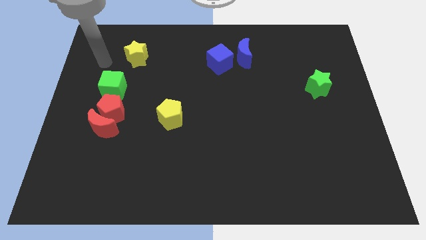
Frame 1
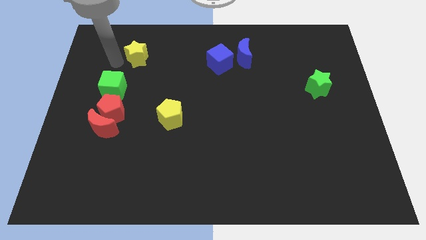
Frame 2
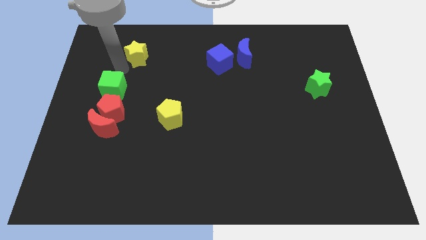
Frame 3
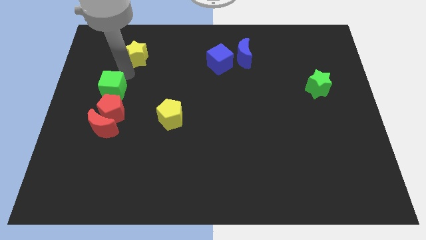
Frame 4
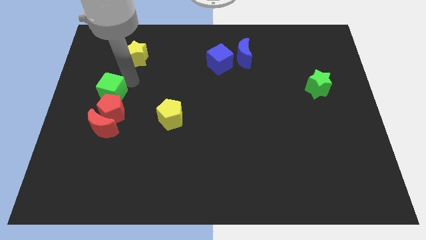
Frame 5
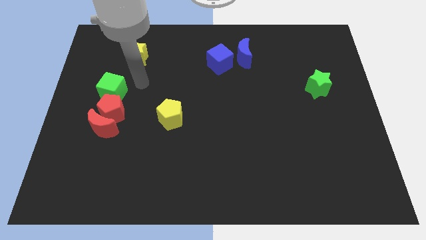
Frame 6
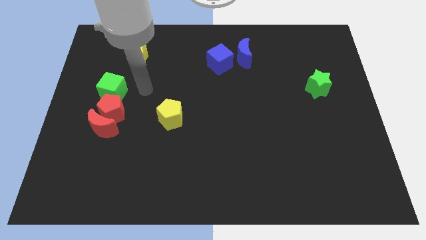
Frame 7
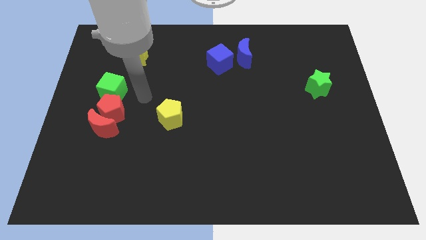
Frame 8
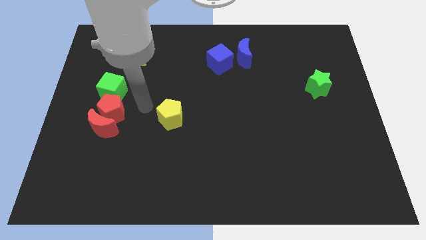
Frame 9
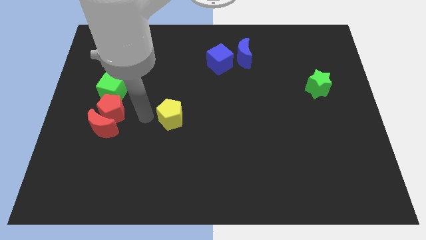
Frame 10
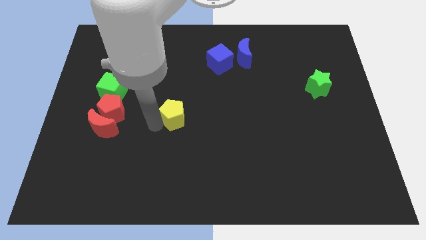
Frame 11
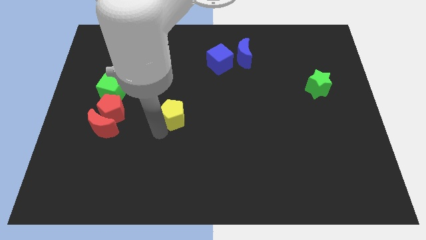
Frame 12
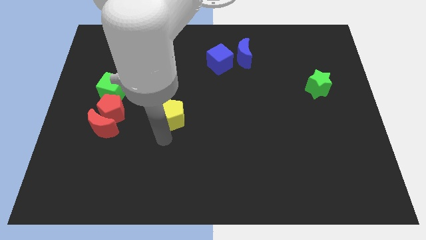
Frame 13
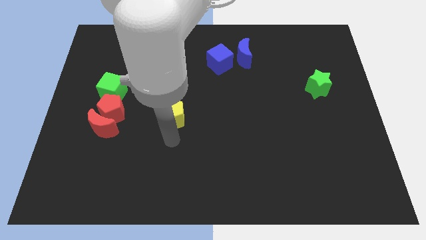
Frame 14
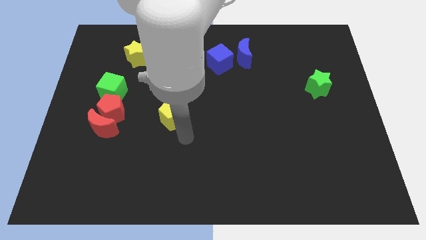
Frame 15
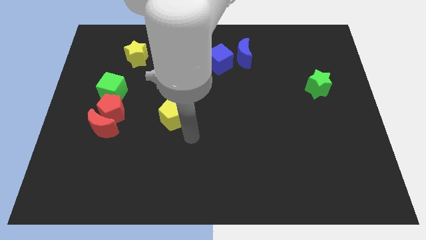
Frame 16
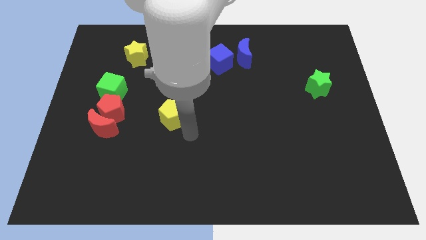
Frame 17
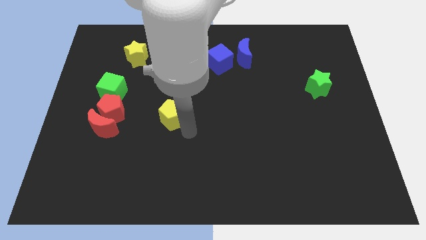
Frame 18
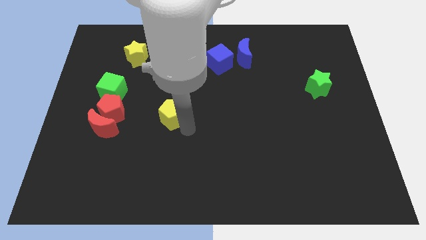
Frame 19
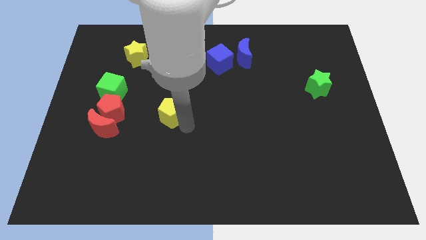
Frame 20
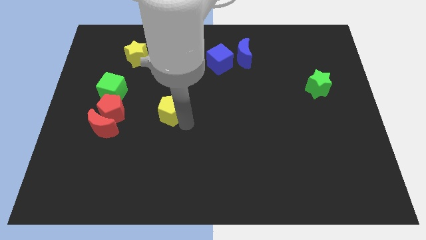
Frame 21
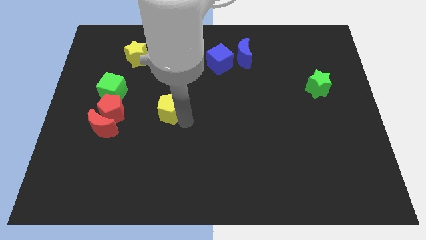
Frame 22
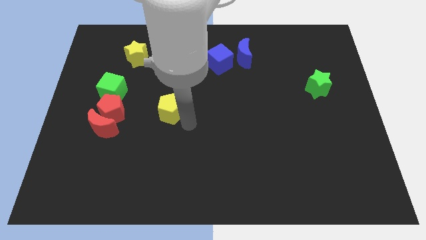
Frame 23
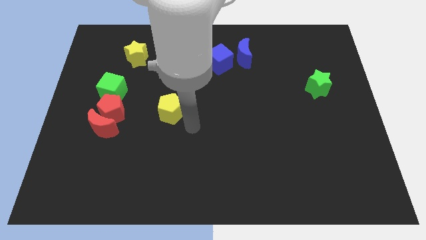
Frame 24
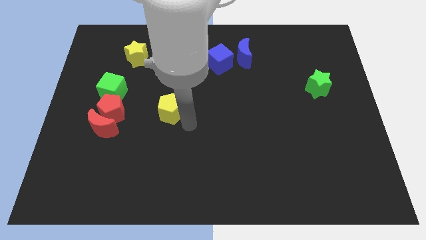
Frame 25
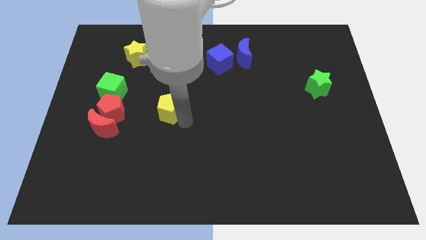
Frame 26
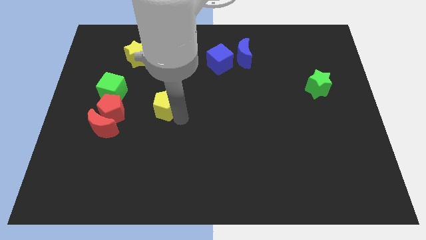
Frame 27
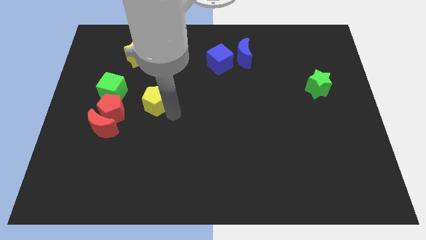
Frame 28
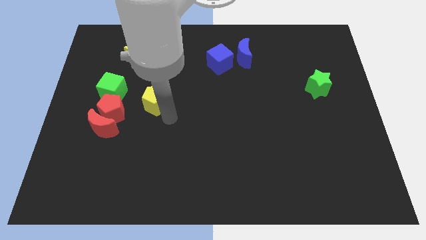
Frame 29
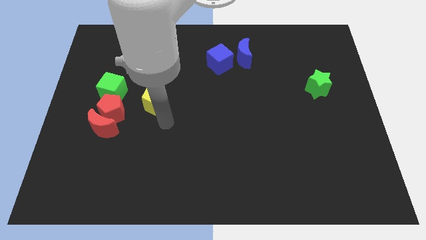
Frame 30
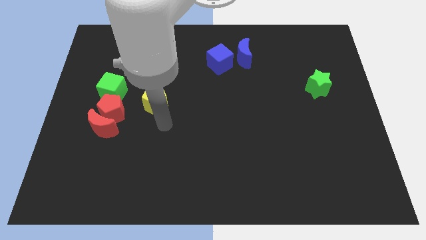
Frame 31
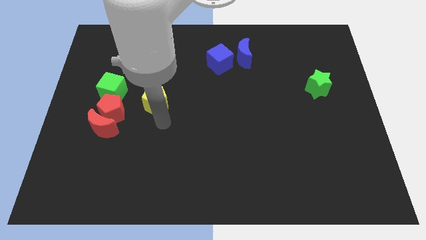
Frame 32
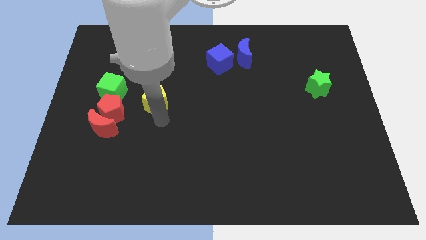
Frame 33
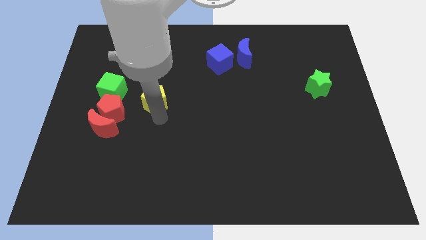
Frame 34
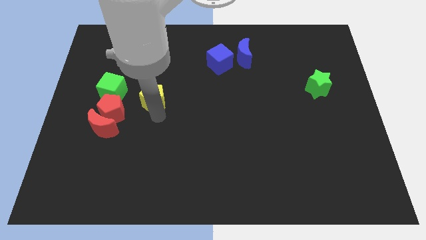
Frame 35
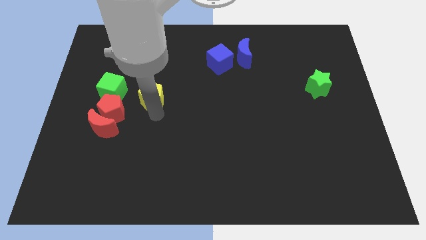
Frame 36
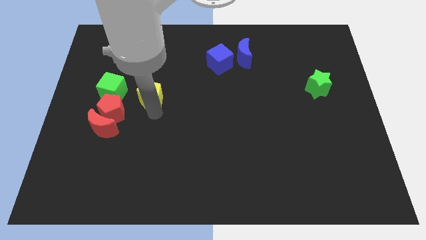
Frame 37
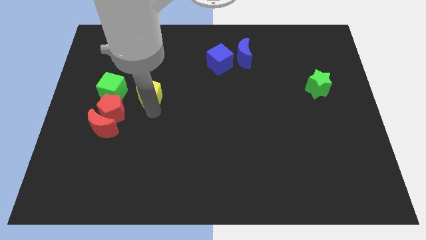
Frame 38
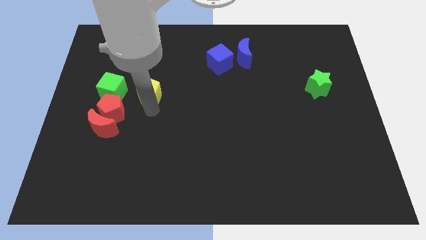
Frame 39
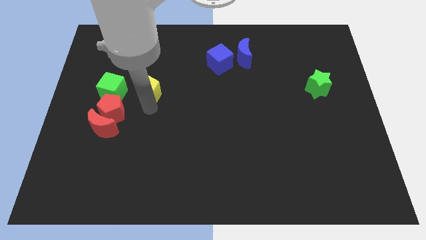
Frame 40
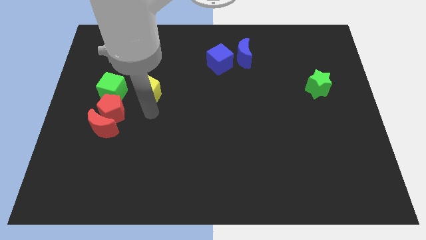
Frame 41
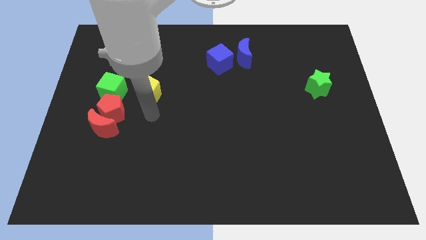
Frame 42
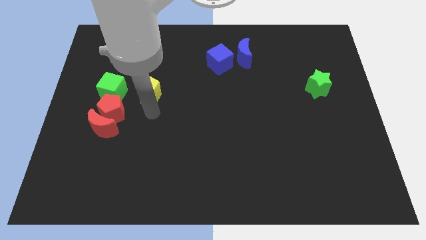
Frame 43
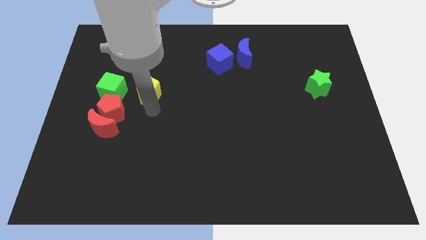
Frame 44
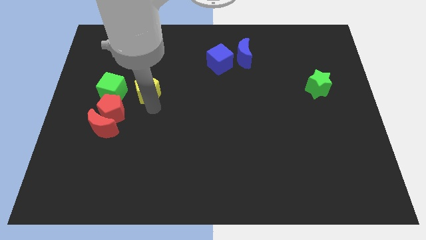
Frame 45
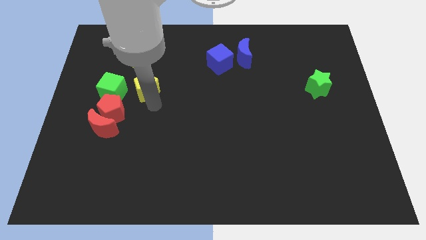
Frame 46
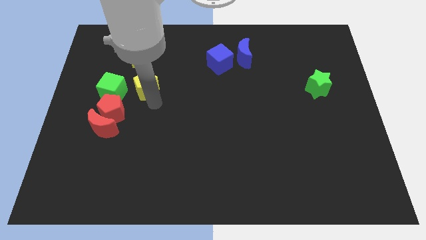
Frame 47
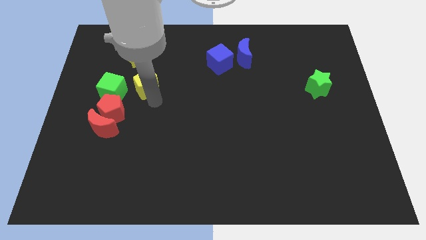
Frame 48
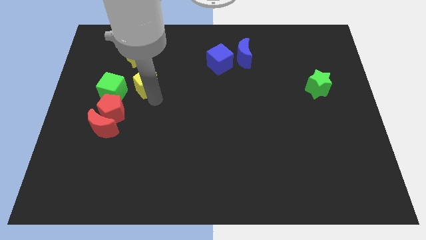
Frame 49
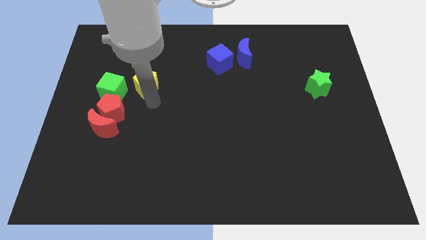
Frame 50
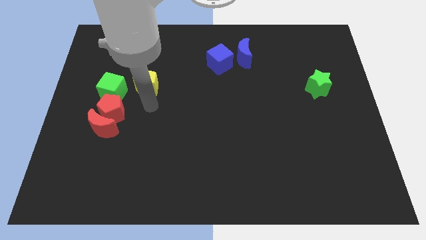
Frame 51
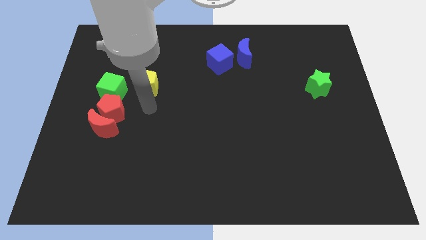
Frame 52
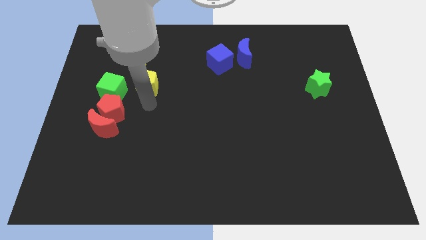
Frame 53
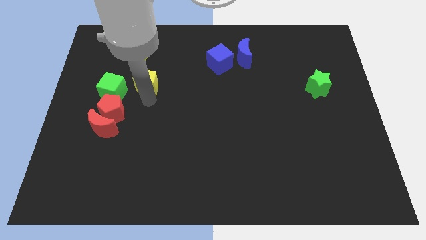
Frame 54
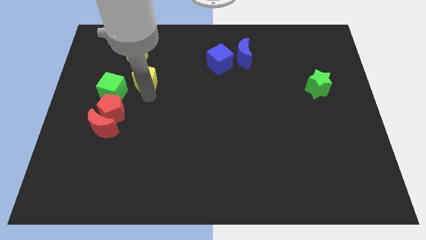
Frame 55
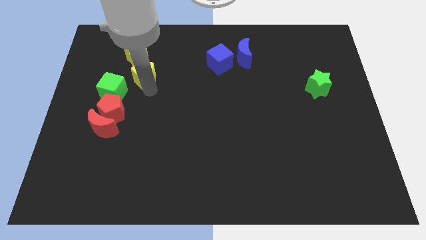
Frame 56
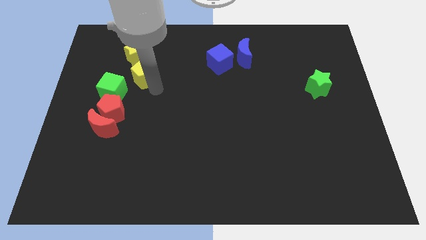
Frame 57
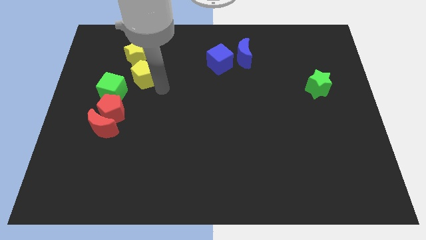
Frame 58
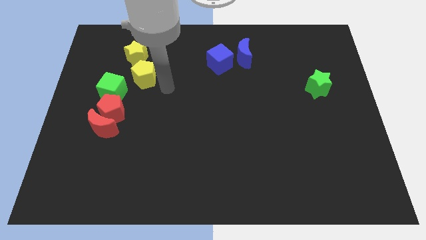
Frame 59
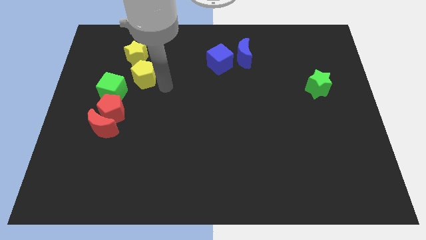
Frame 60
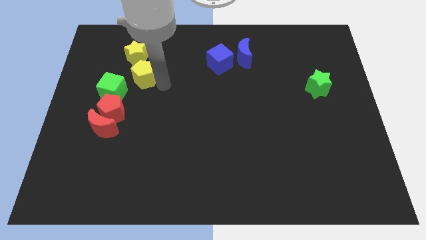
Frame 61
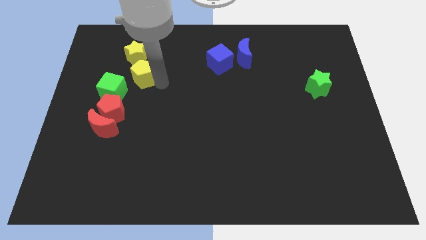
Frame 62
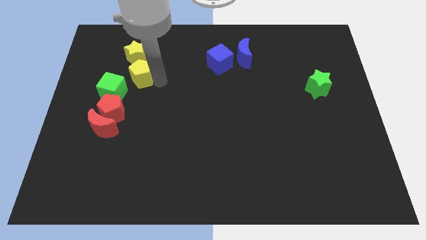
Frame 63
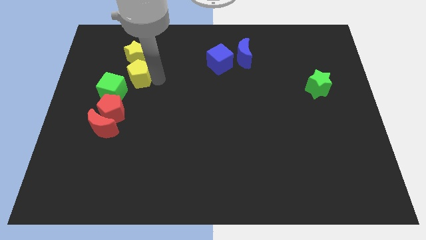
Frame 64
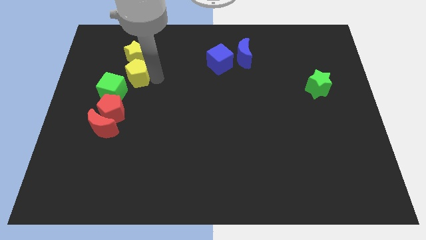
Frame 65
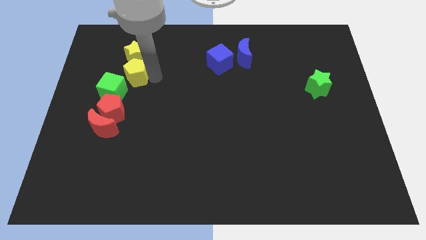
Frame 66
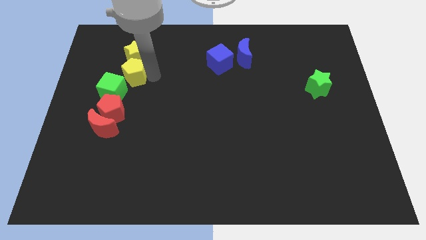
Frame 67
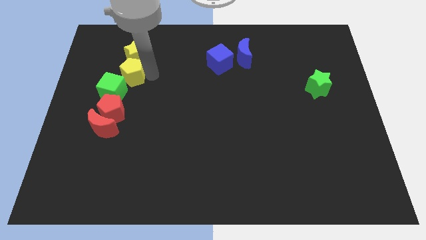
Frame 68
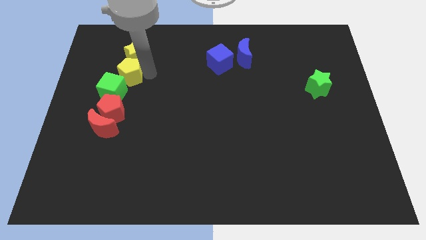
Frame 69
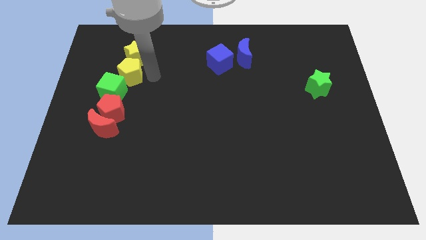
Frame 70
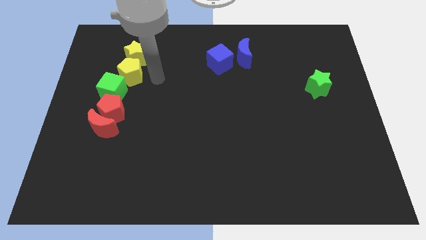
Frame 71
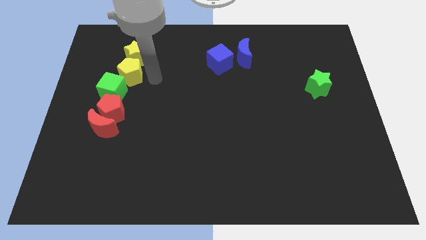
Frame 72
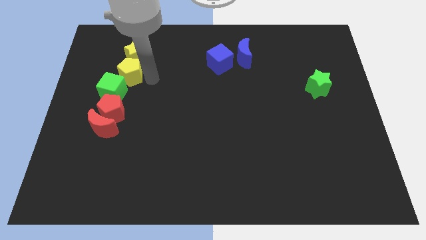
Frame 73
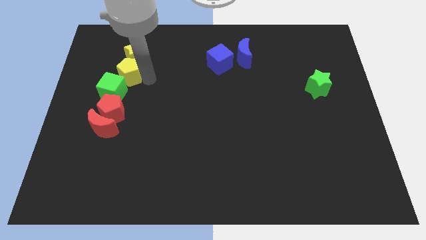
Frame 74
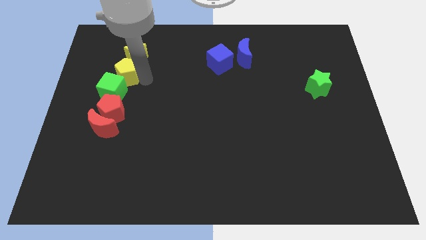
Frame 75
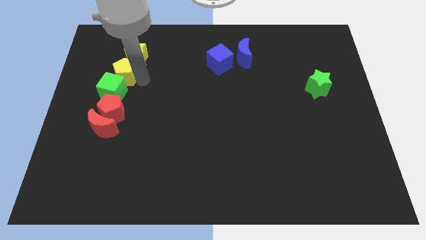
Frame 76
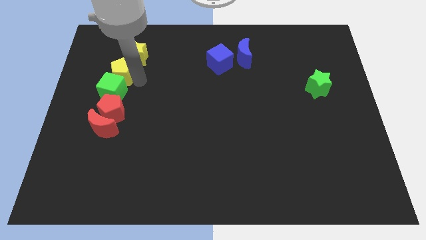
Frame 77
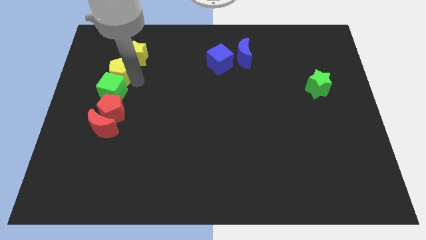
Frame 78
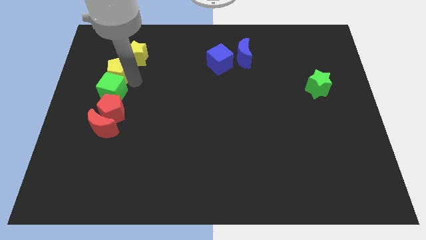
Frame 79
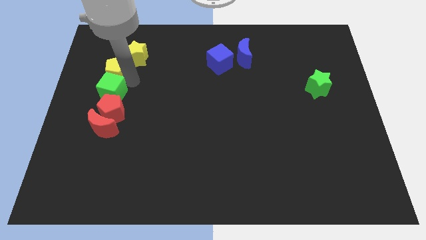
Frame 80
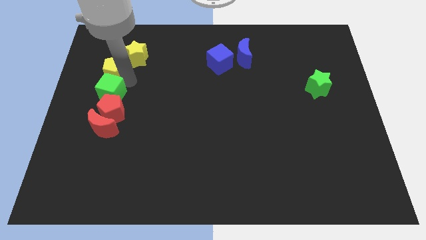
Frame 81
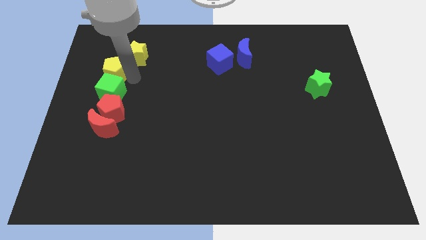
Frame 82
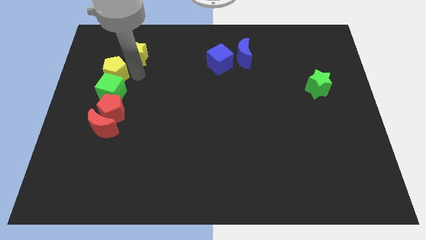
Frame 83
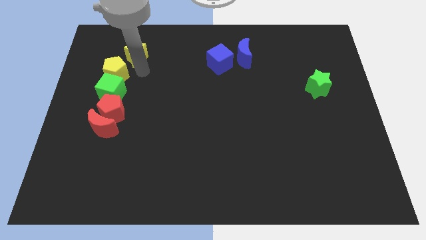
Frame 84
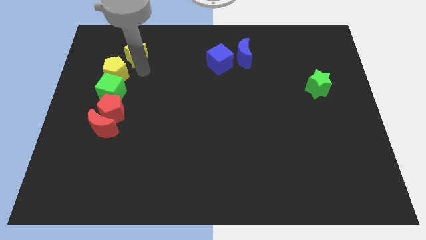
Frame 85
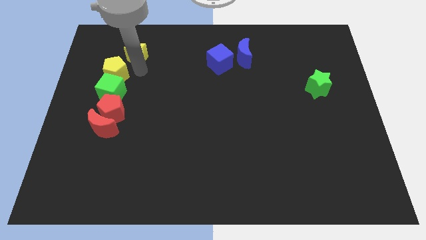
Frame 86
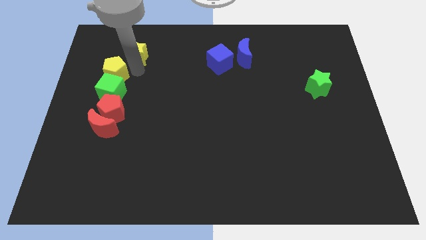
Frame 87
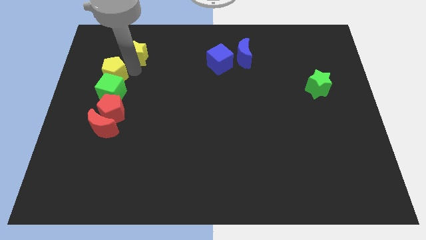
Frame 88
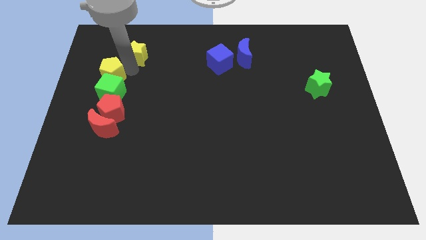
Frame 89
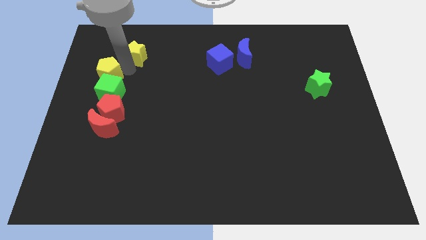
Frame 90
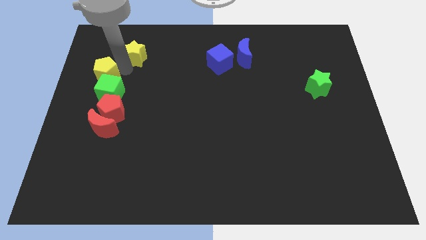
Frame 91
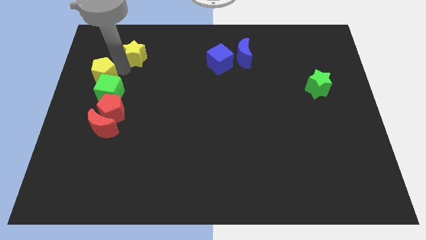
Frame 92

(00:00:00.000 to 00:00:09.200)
move the yellow pentagon to the left side
